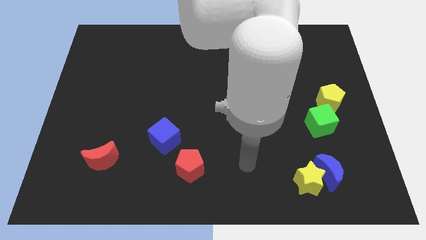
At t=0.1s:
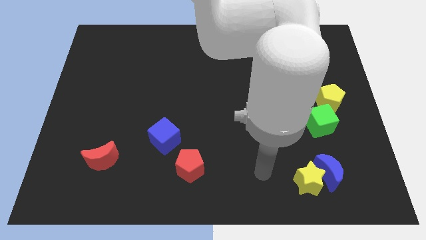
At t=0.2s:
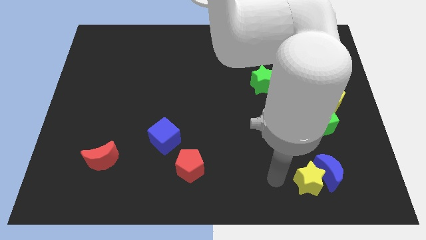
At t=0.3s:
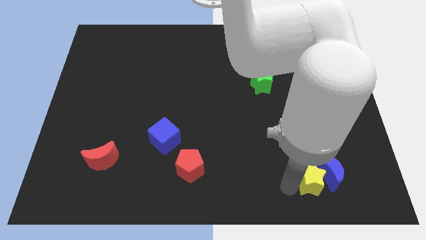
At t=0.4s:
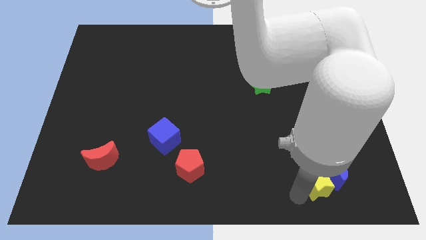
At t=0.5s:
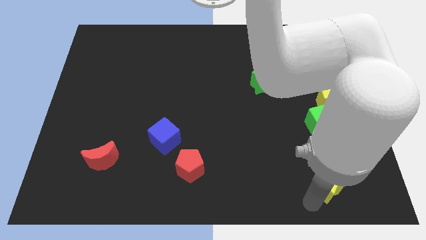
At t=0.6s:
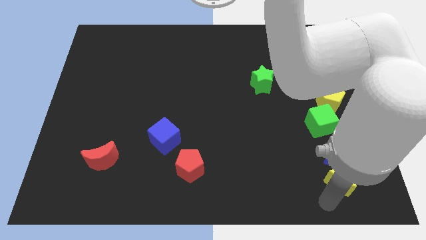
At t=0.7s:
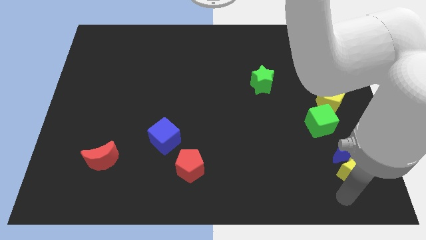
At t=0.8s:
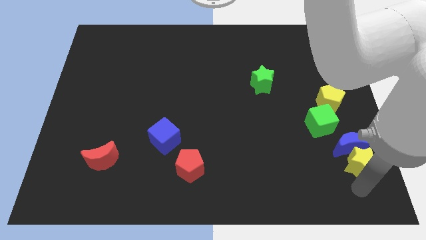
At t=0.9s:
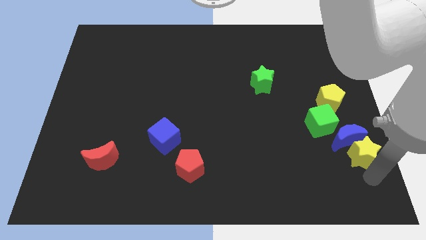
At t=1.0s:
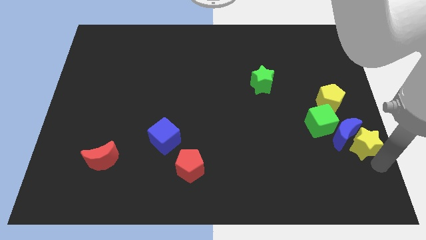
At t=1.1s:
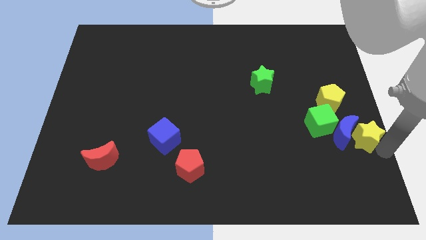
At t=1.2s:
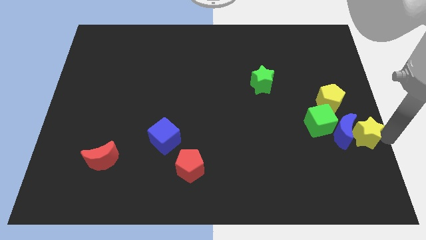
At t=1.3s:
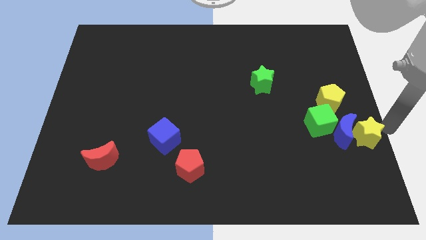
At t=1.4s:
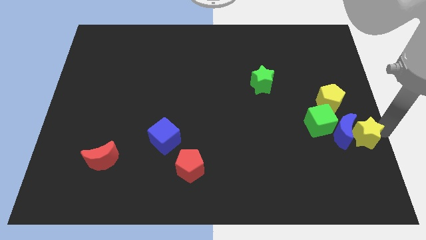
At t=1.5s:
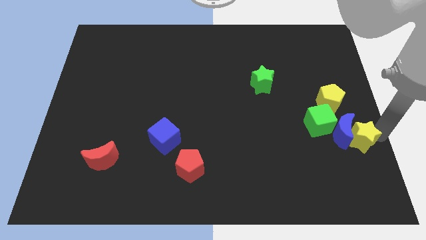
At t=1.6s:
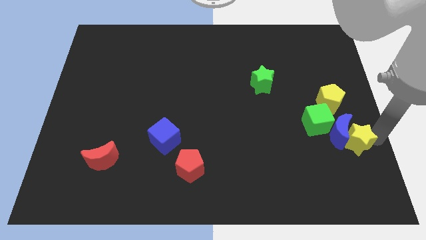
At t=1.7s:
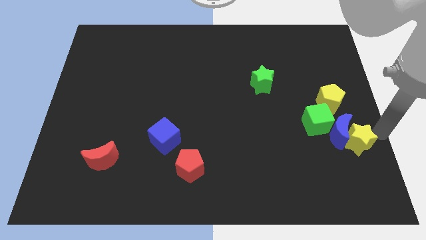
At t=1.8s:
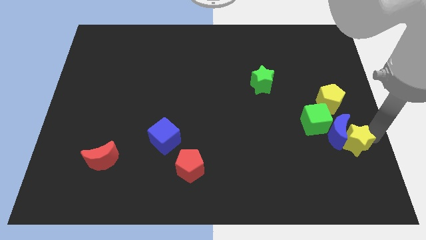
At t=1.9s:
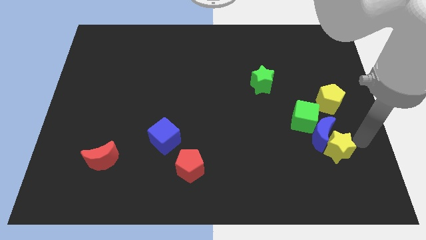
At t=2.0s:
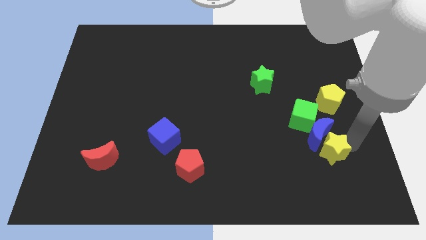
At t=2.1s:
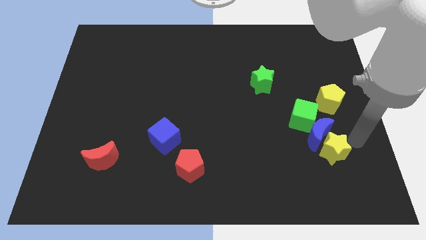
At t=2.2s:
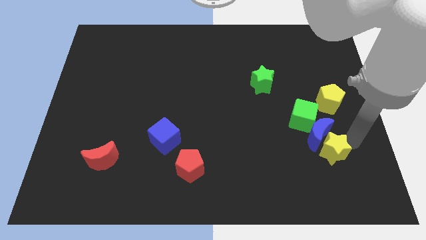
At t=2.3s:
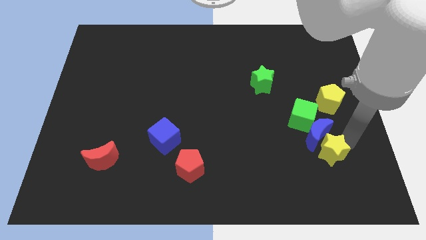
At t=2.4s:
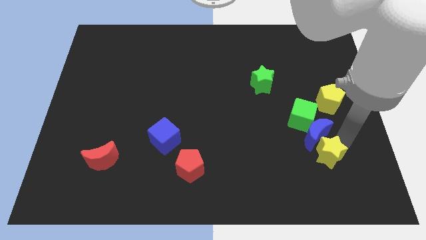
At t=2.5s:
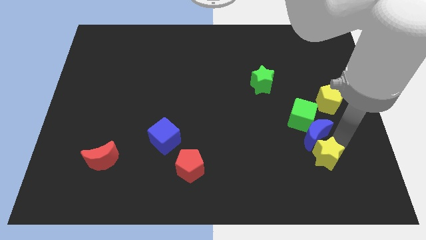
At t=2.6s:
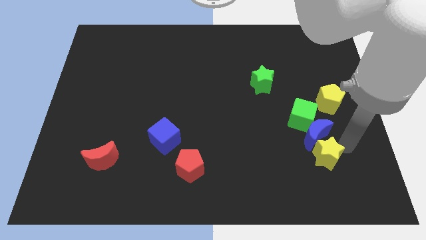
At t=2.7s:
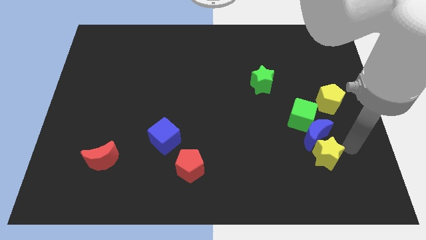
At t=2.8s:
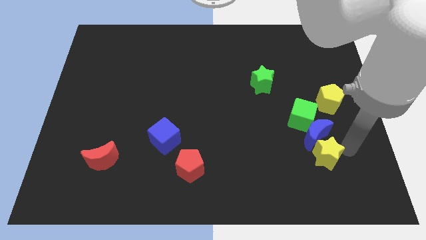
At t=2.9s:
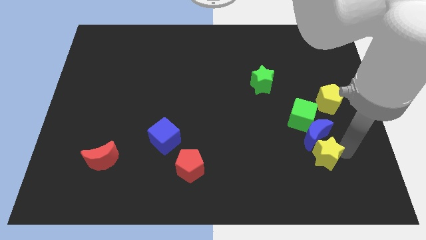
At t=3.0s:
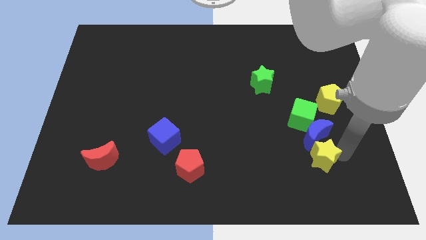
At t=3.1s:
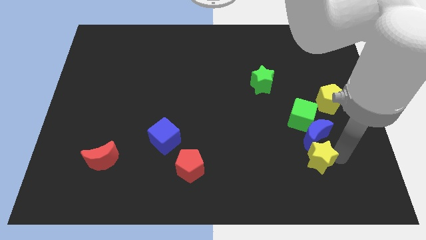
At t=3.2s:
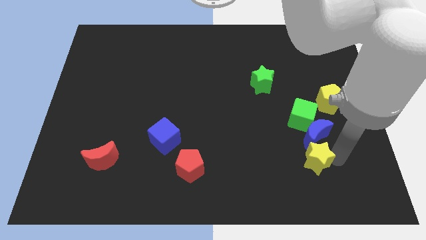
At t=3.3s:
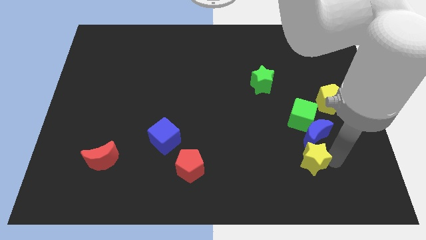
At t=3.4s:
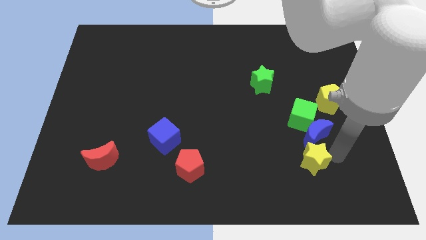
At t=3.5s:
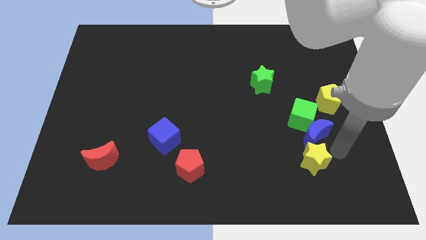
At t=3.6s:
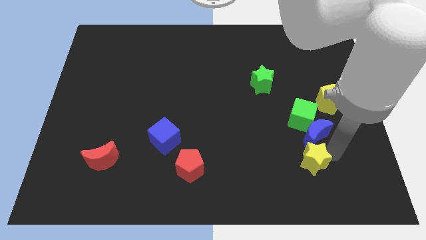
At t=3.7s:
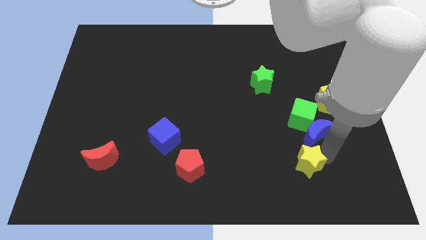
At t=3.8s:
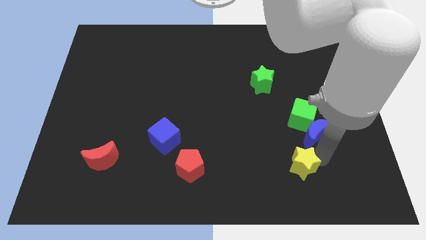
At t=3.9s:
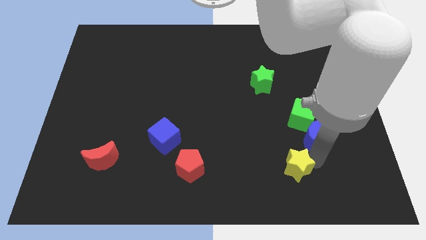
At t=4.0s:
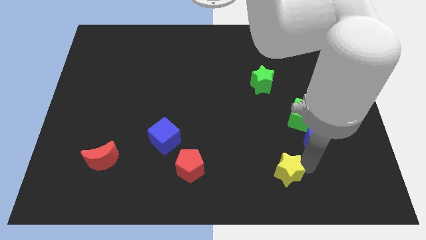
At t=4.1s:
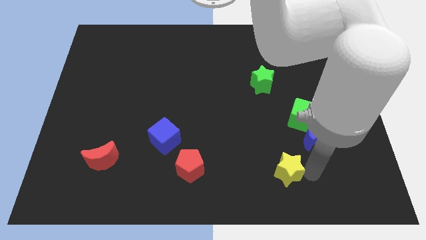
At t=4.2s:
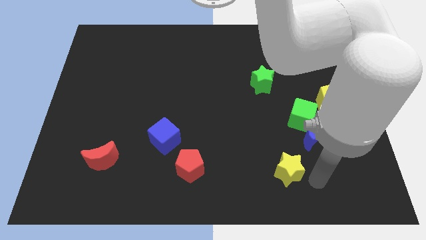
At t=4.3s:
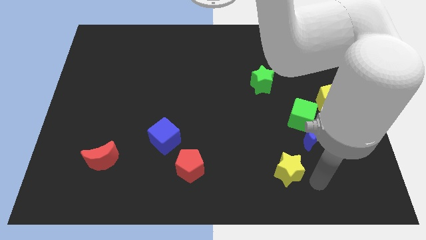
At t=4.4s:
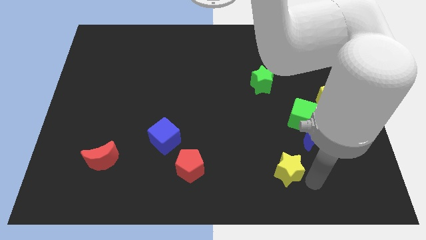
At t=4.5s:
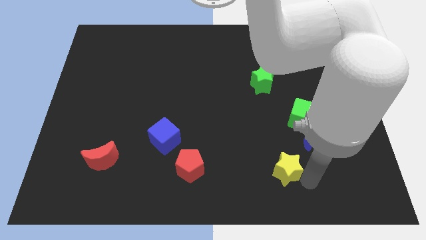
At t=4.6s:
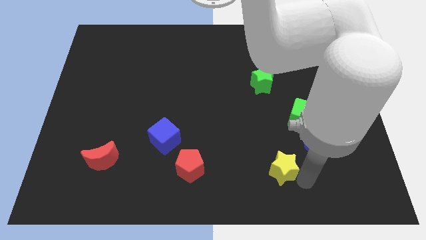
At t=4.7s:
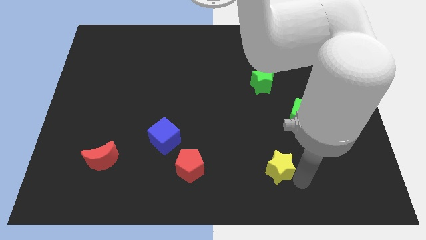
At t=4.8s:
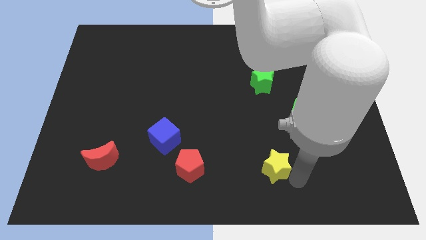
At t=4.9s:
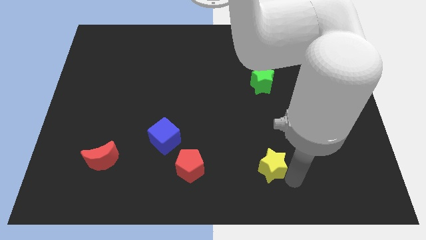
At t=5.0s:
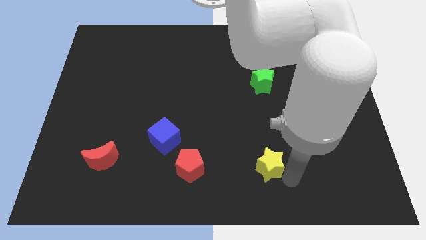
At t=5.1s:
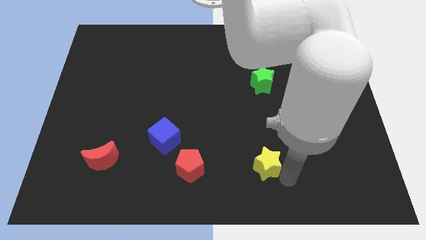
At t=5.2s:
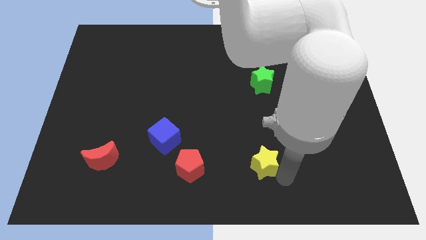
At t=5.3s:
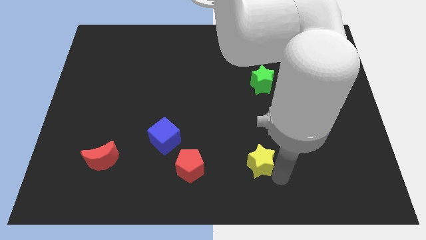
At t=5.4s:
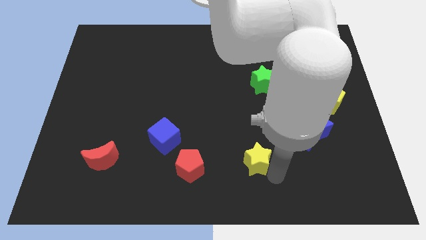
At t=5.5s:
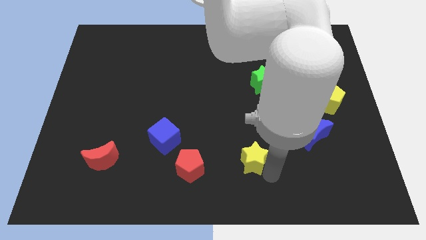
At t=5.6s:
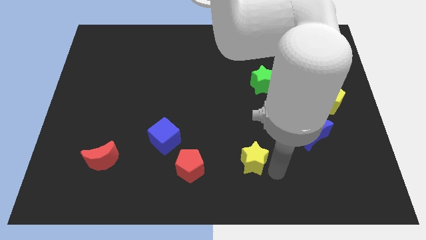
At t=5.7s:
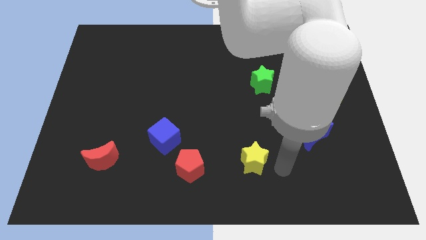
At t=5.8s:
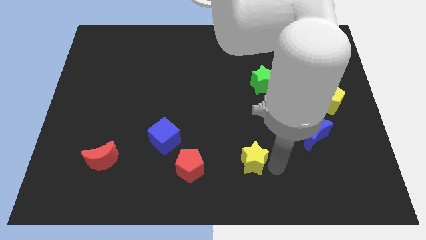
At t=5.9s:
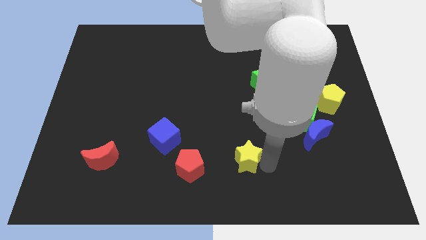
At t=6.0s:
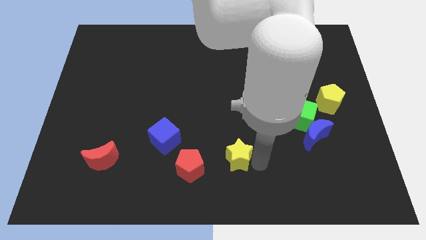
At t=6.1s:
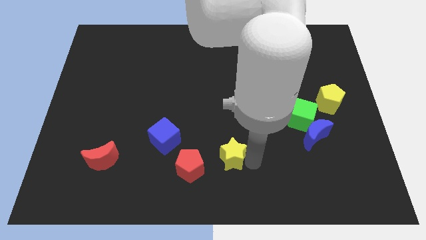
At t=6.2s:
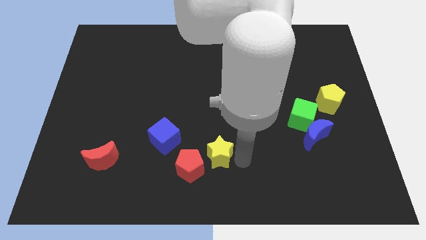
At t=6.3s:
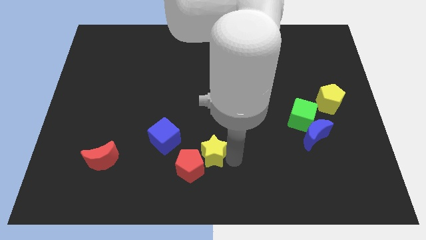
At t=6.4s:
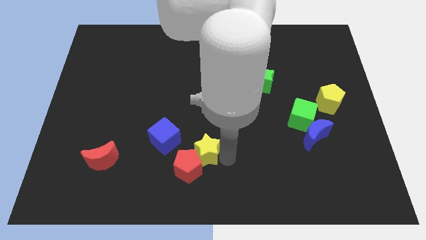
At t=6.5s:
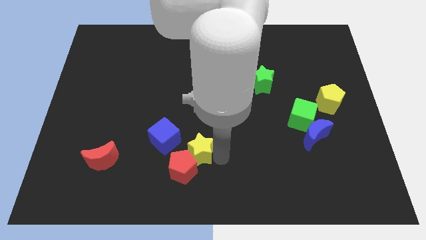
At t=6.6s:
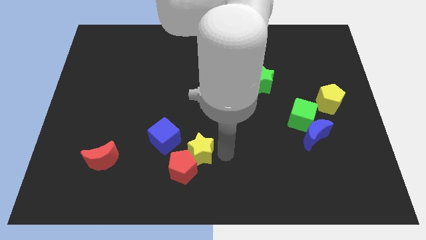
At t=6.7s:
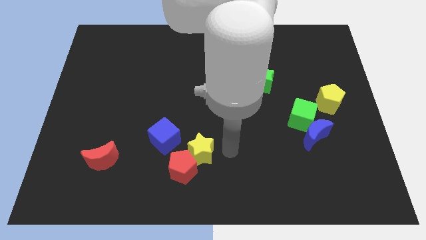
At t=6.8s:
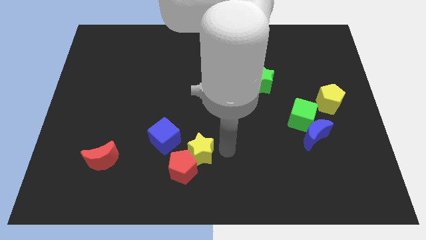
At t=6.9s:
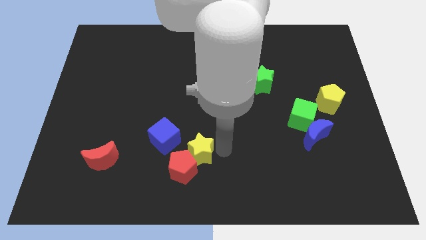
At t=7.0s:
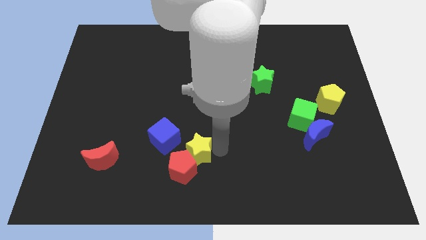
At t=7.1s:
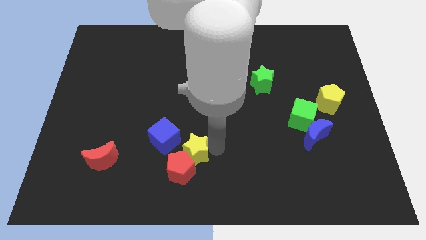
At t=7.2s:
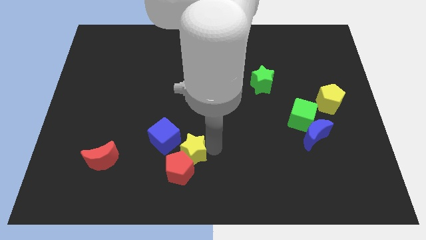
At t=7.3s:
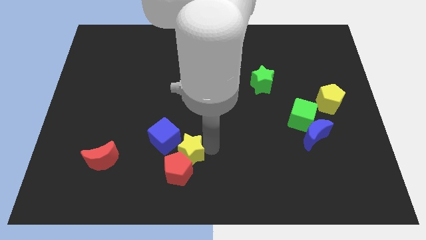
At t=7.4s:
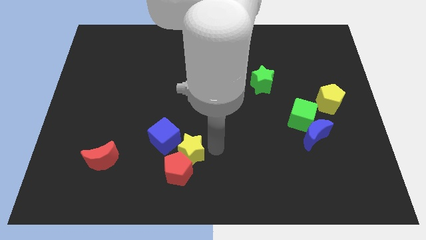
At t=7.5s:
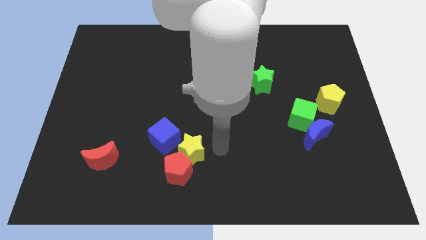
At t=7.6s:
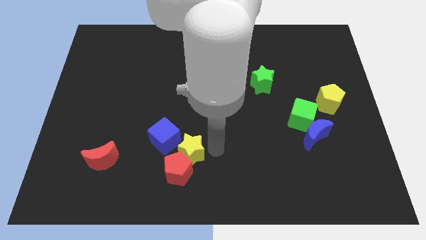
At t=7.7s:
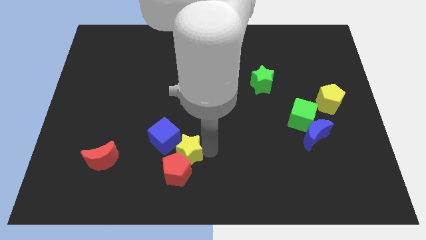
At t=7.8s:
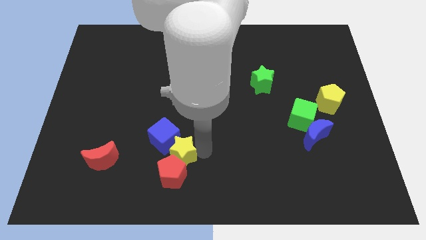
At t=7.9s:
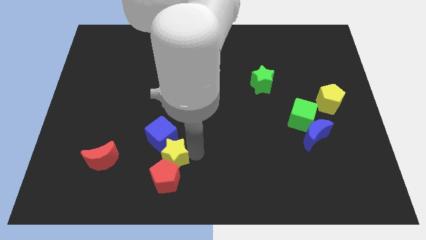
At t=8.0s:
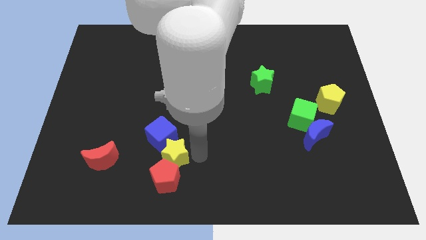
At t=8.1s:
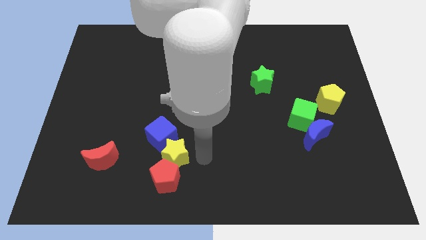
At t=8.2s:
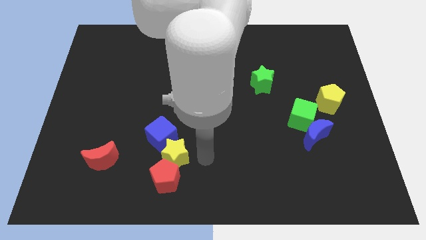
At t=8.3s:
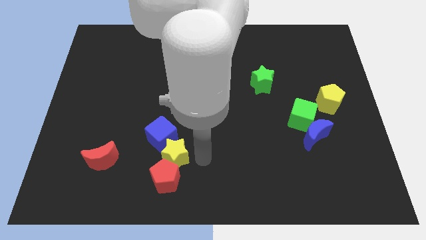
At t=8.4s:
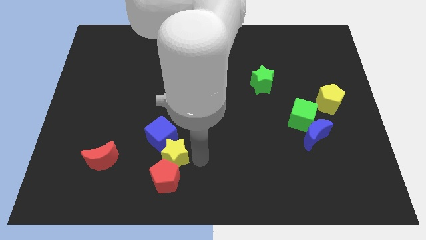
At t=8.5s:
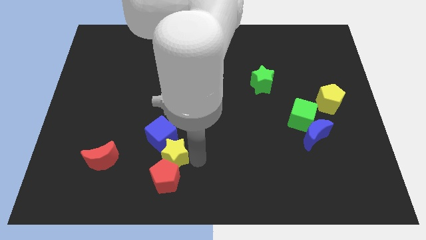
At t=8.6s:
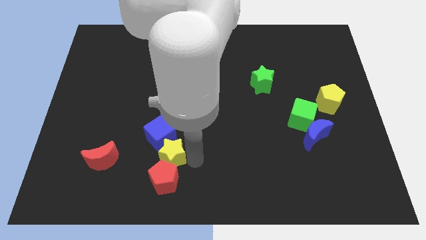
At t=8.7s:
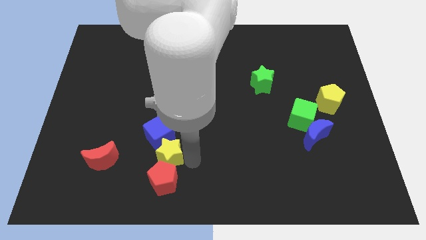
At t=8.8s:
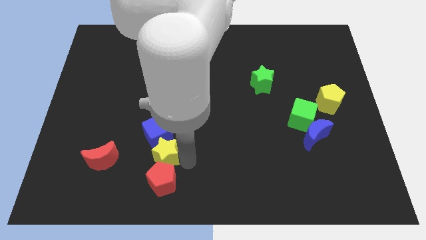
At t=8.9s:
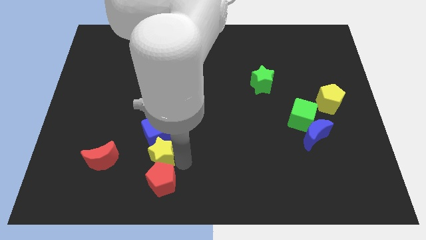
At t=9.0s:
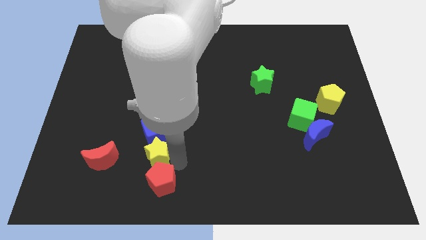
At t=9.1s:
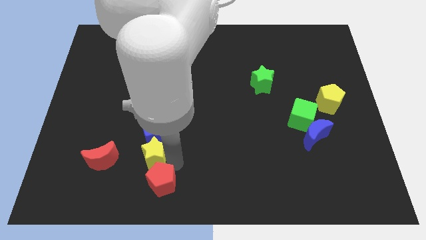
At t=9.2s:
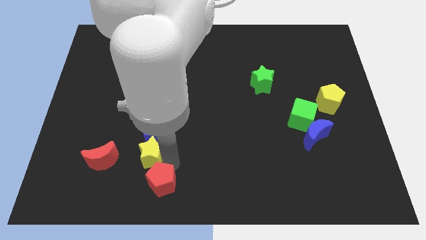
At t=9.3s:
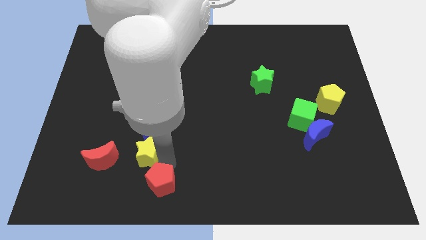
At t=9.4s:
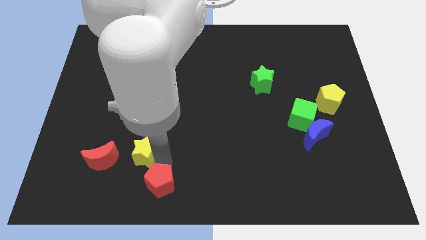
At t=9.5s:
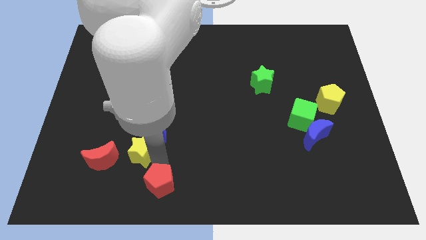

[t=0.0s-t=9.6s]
put the yellow star to the top right side of the red moon
